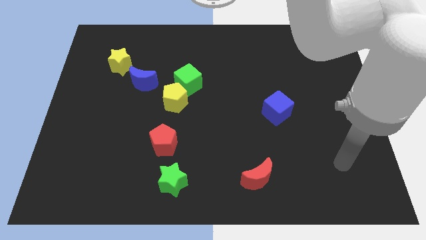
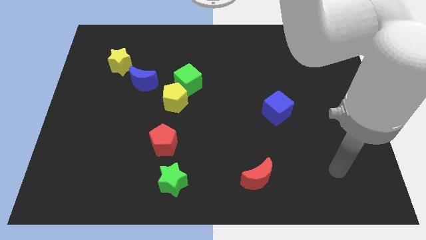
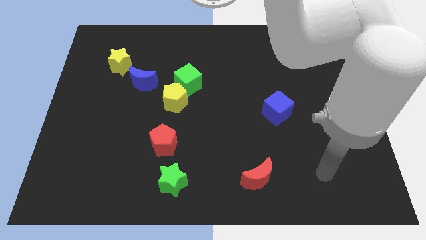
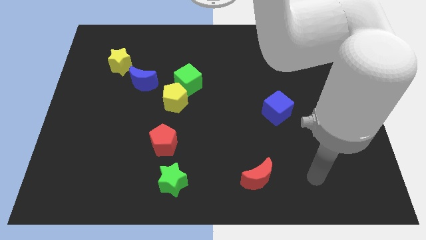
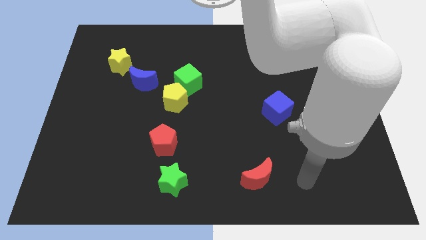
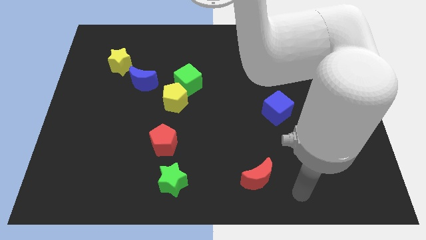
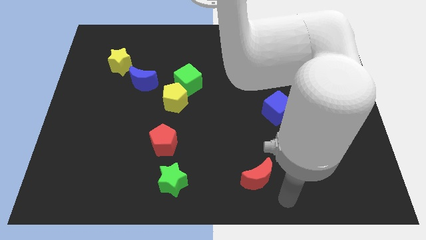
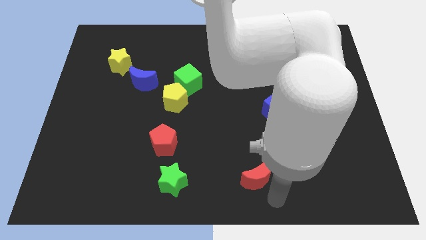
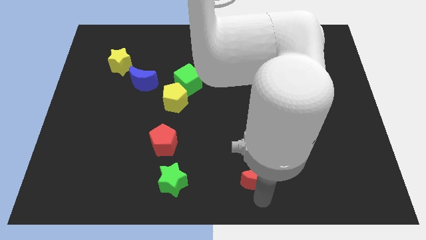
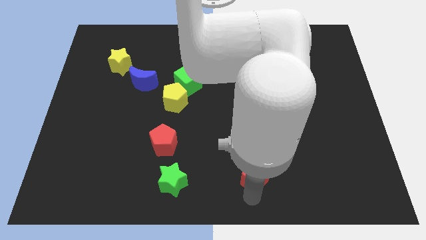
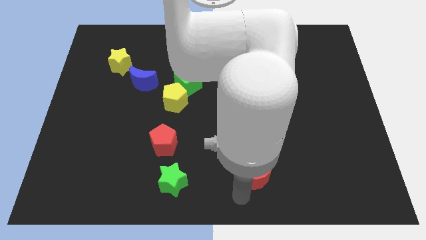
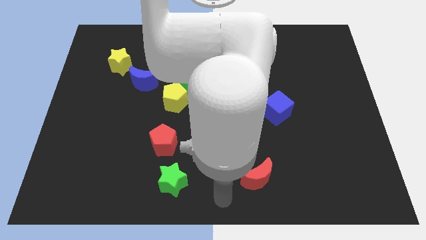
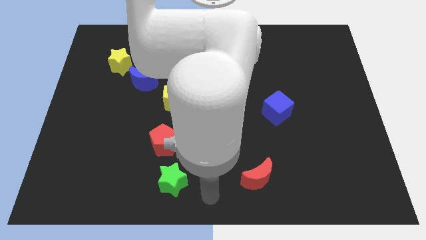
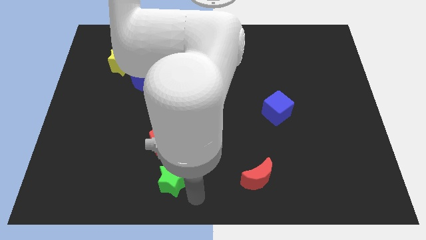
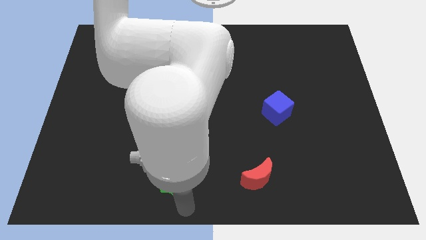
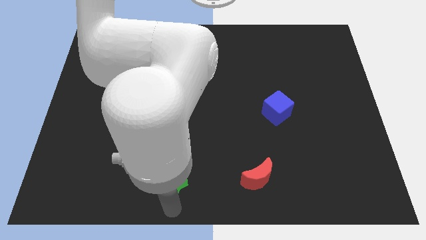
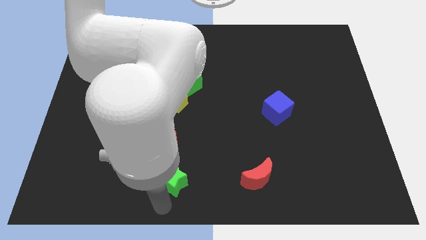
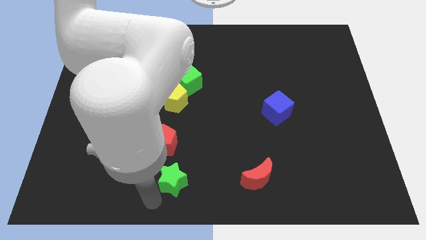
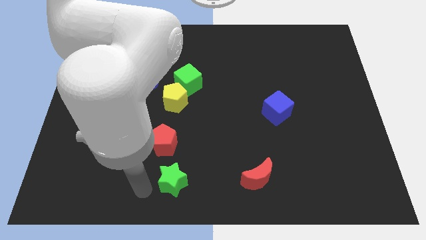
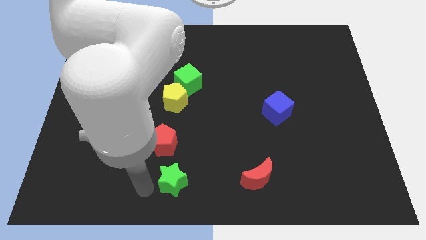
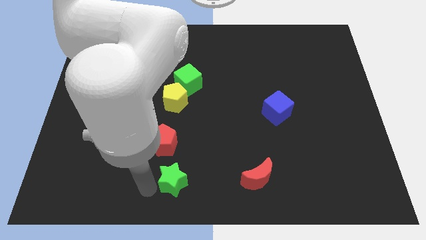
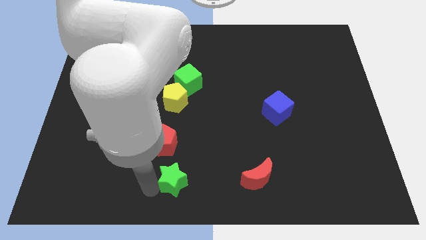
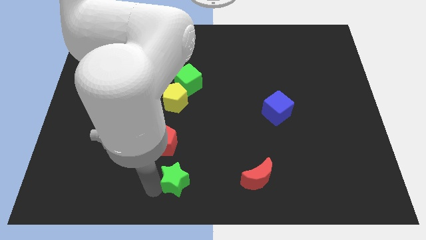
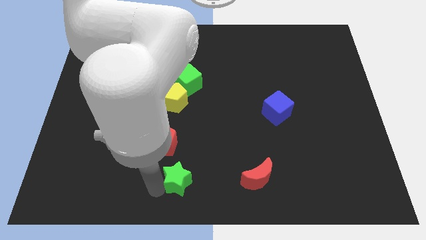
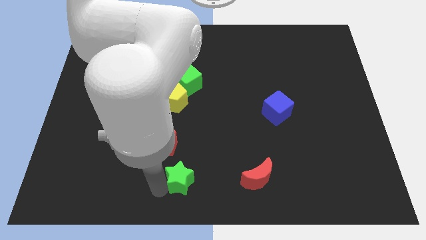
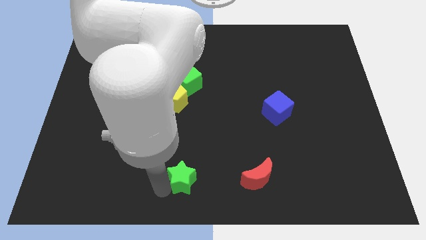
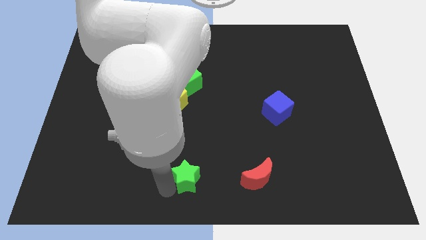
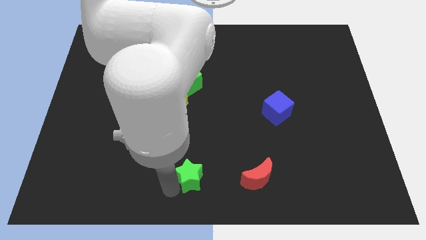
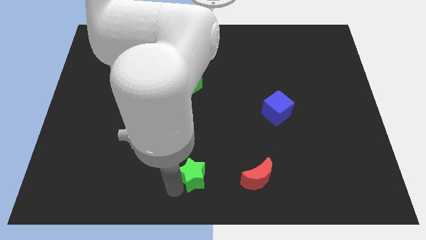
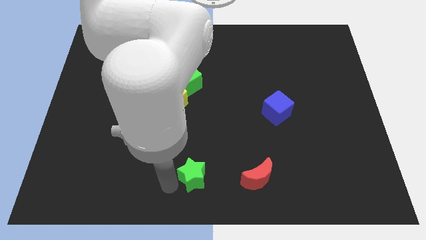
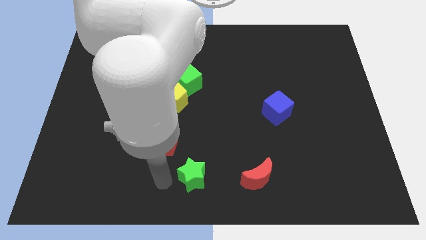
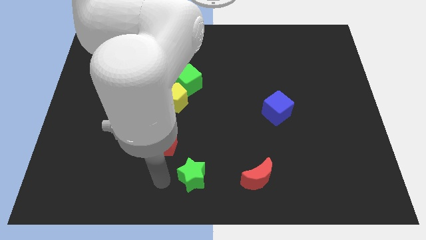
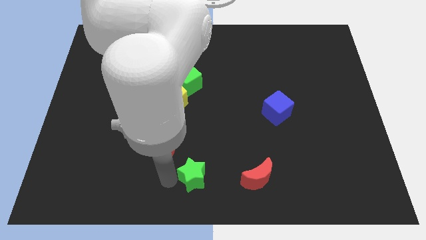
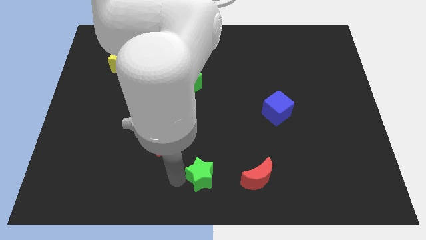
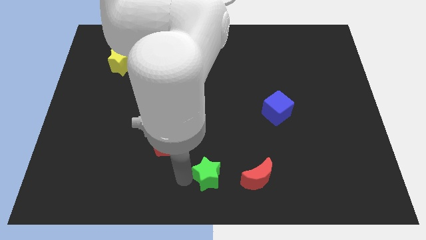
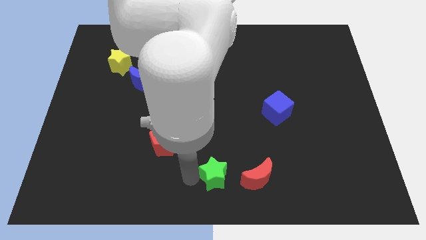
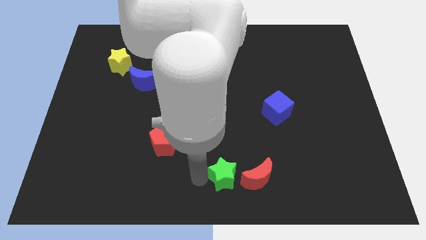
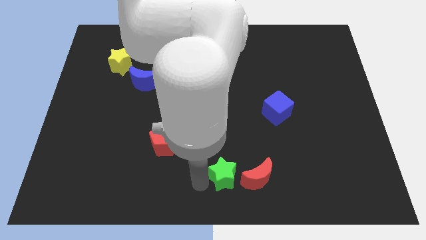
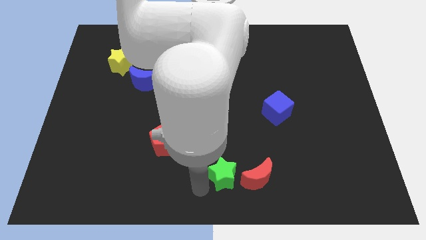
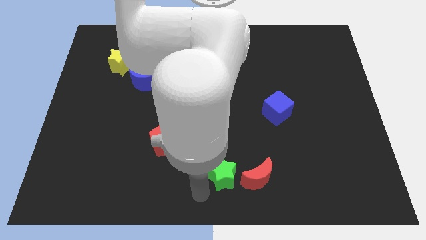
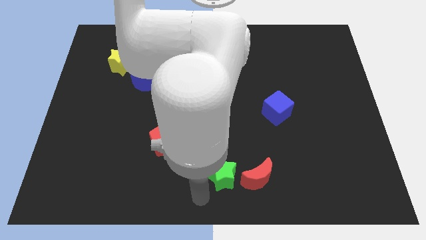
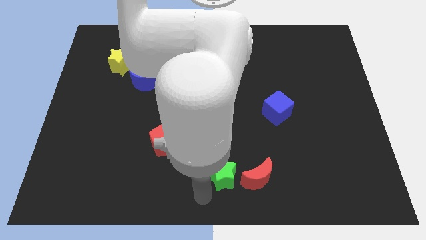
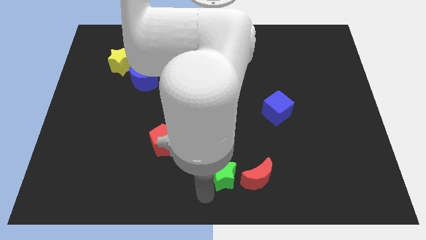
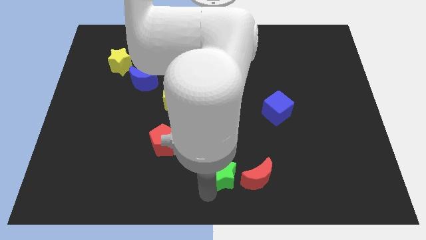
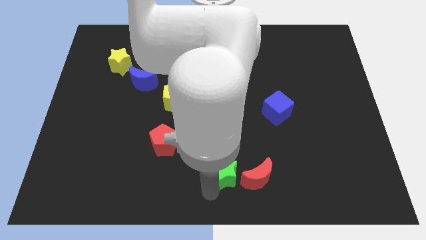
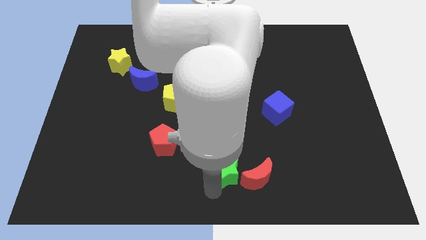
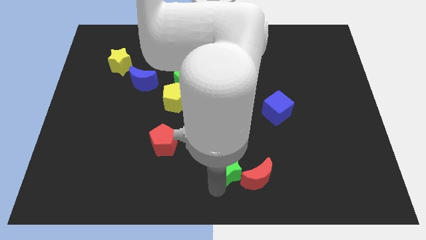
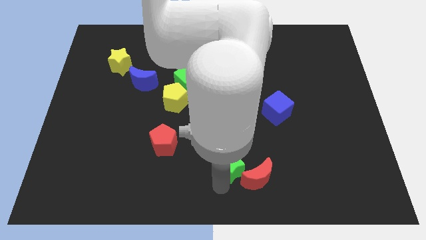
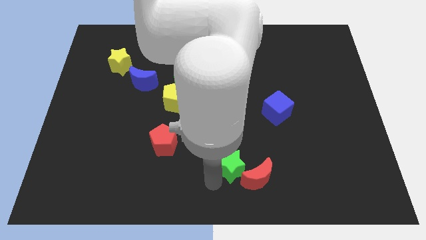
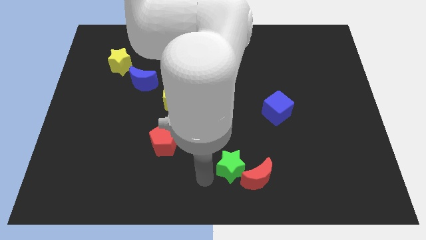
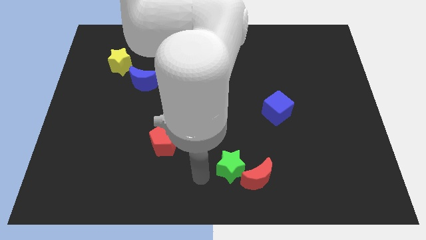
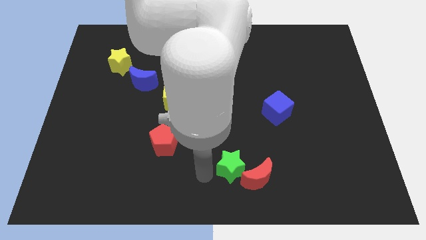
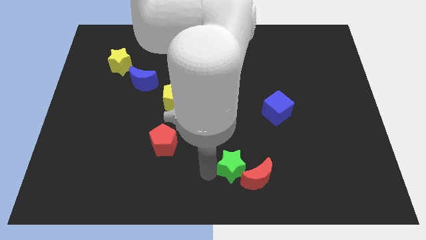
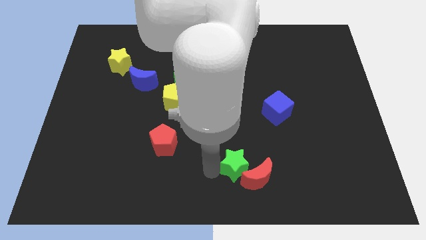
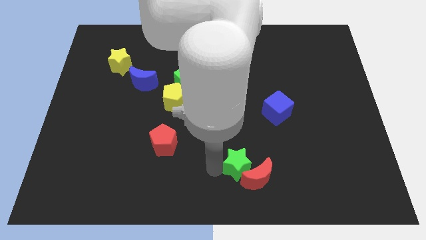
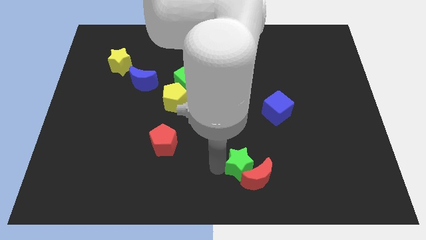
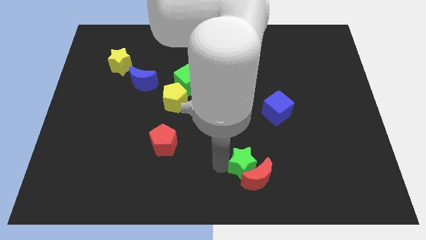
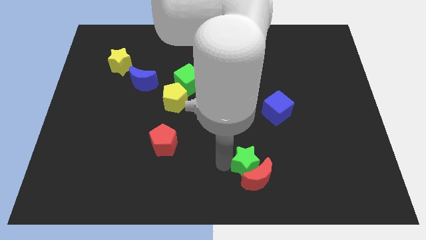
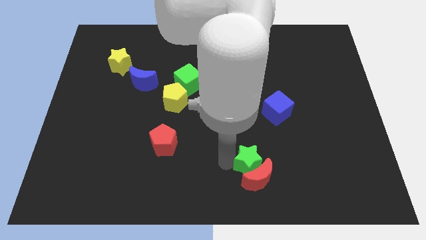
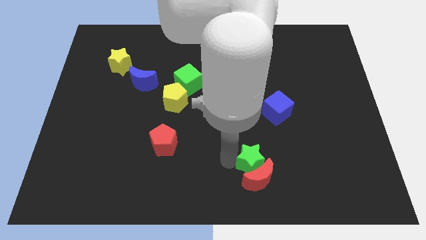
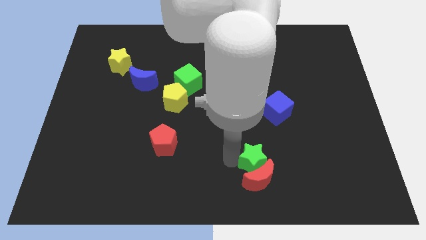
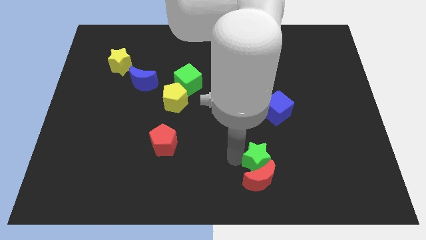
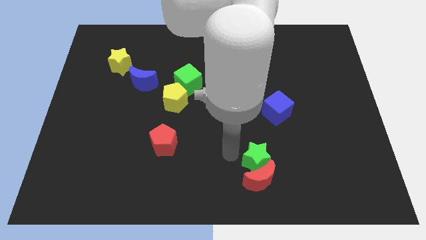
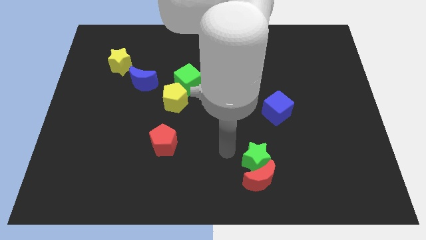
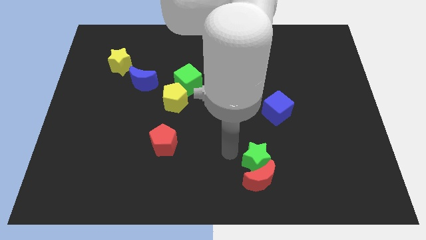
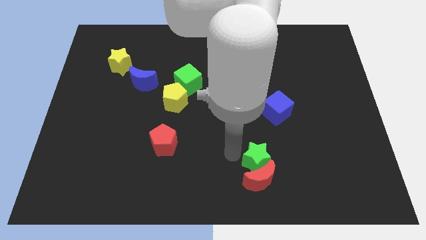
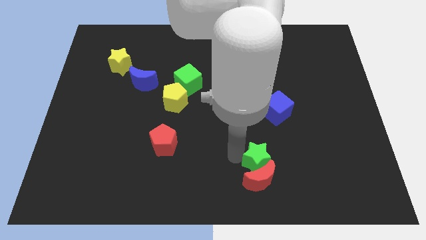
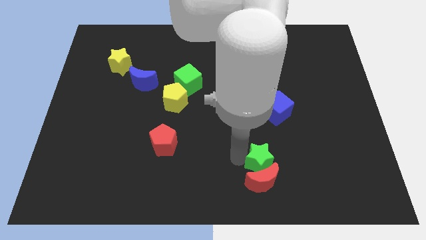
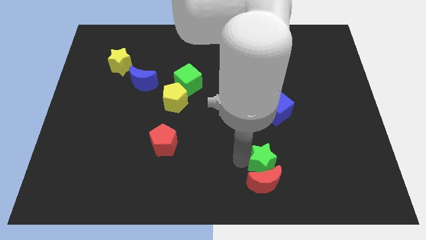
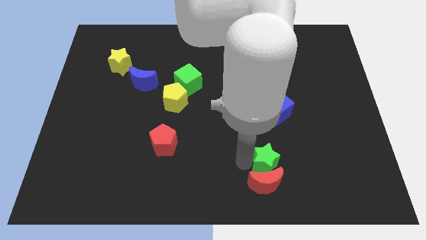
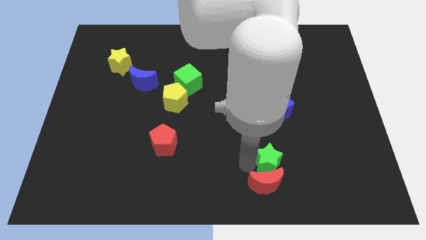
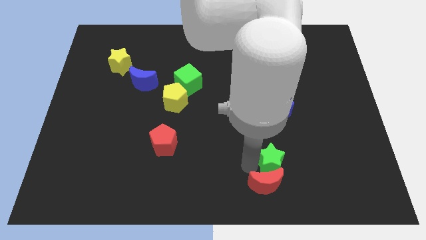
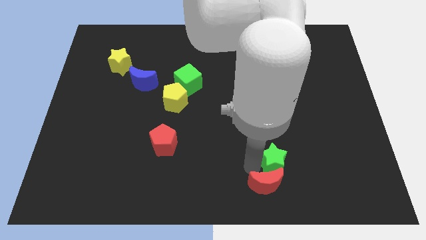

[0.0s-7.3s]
move the green star right

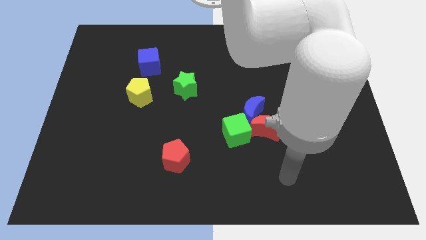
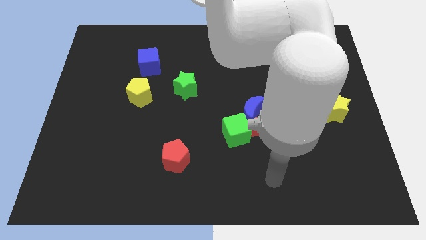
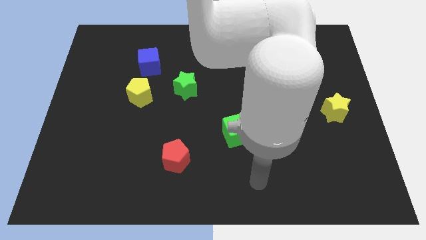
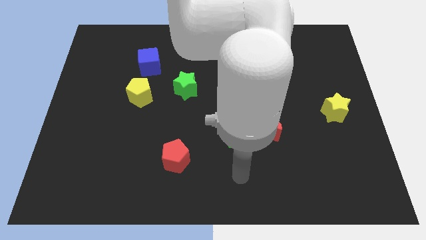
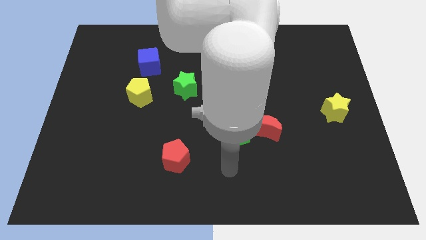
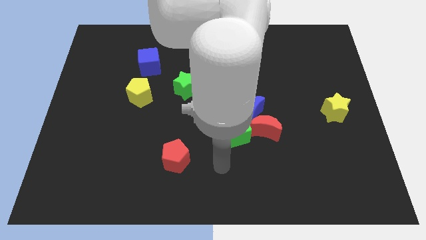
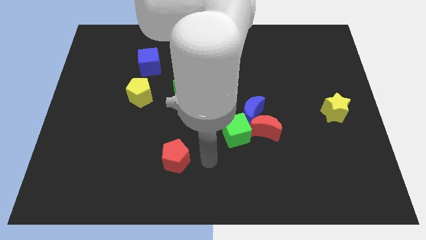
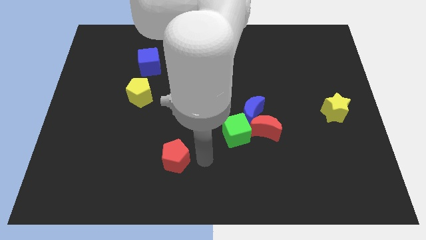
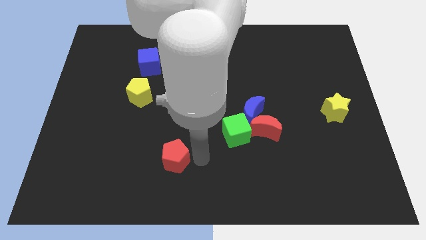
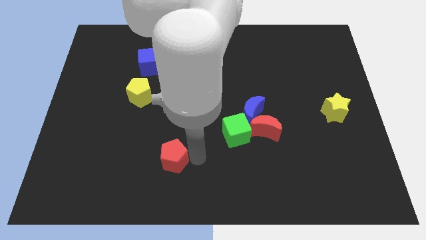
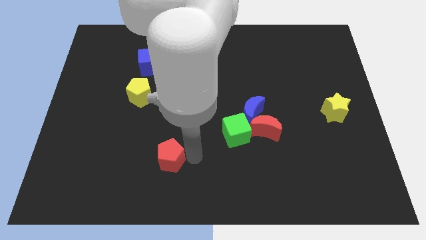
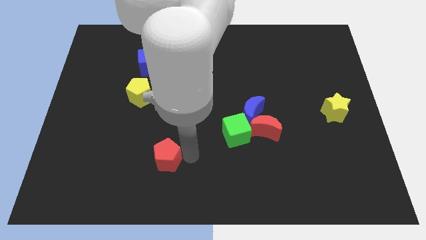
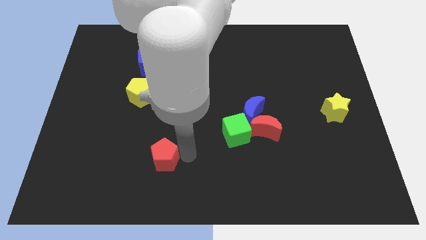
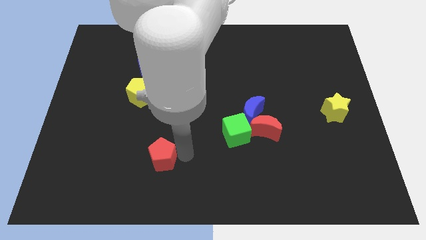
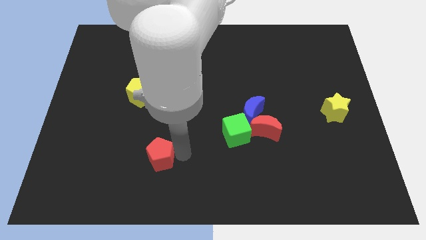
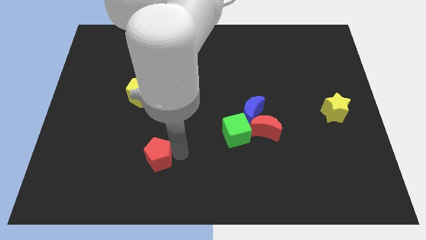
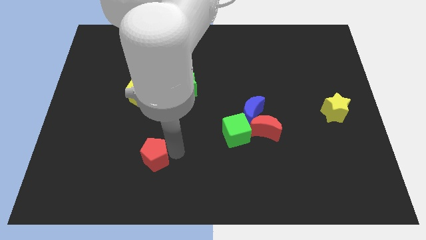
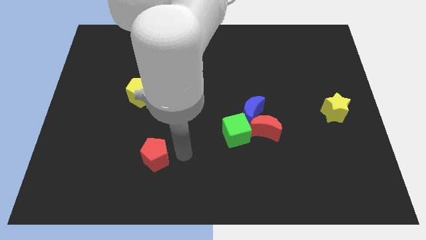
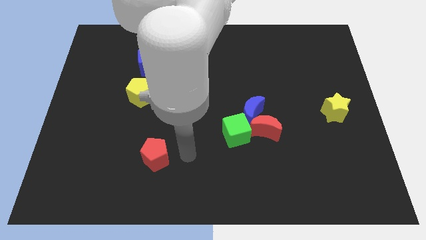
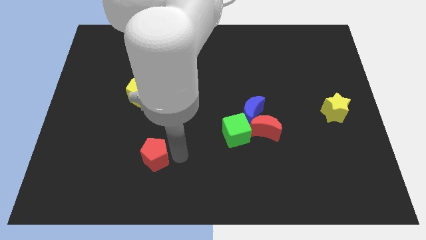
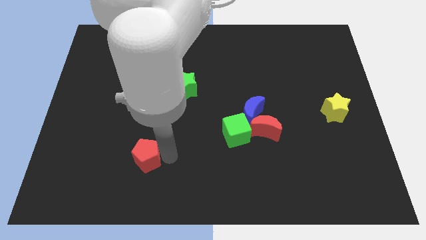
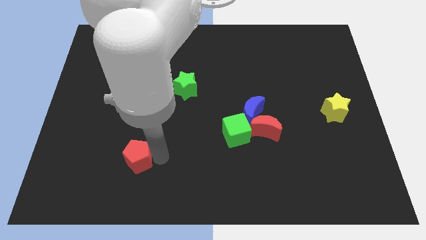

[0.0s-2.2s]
slide the red pentagon left a bit
